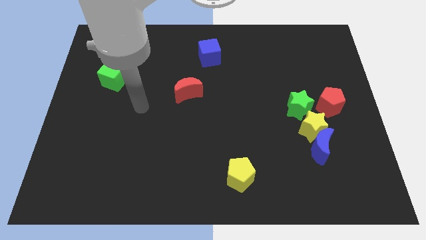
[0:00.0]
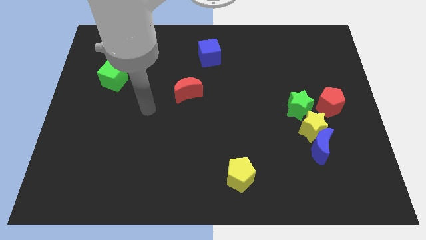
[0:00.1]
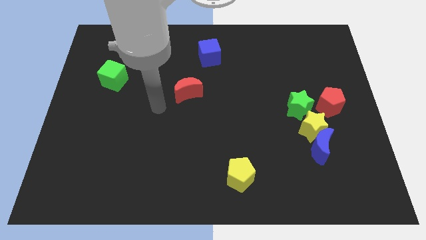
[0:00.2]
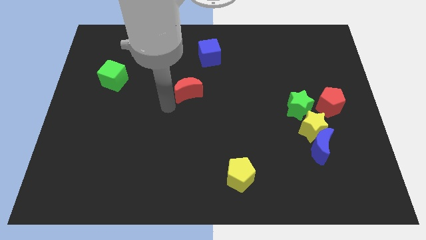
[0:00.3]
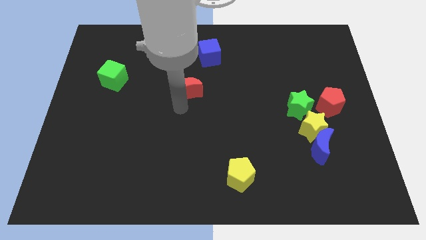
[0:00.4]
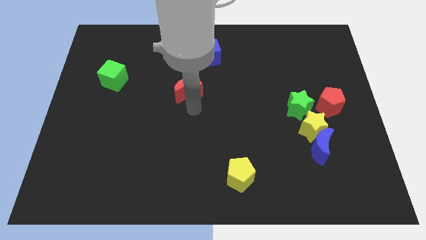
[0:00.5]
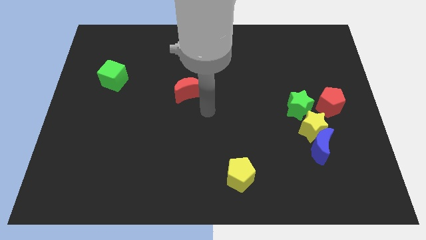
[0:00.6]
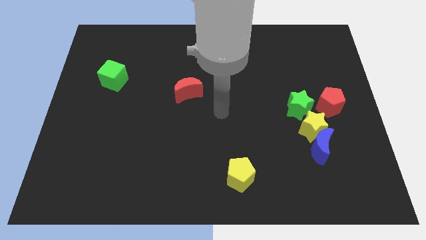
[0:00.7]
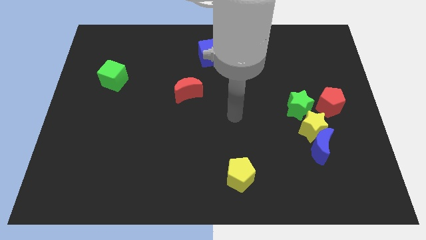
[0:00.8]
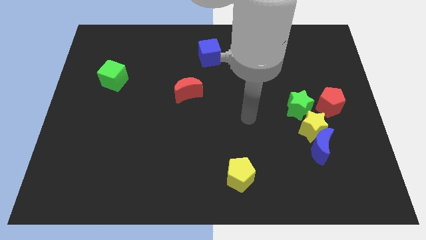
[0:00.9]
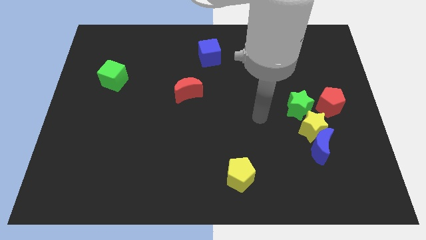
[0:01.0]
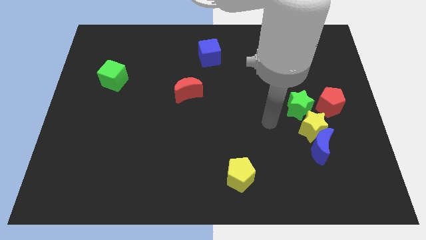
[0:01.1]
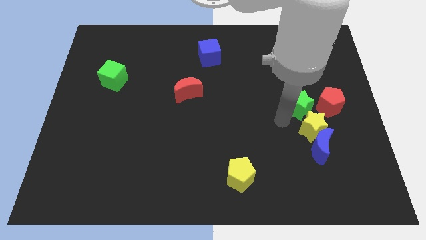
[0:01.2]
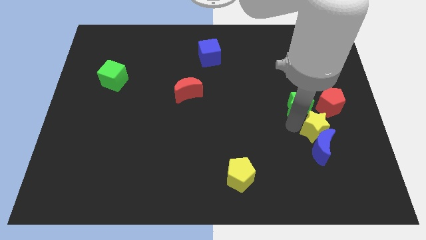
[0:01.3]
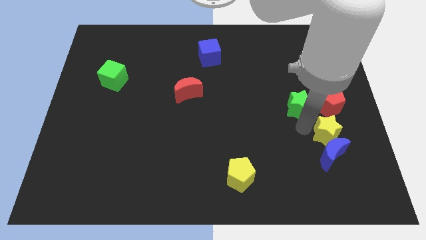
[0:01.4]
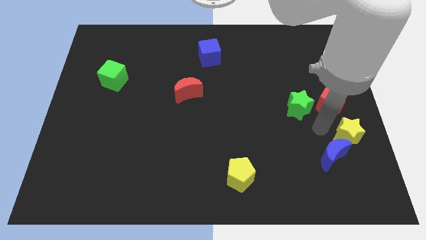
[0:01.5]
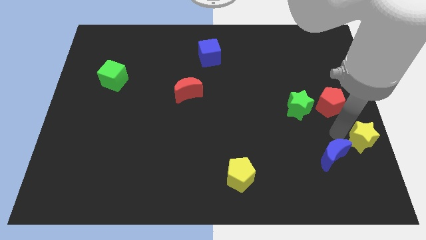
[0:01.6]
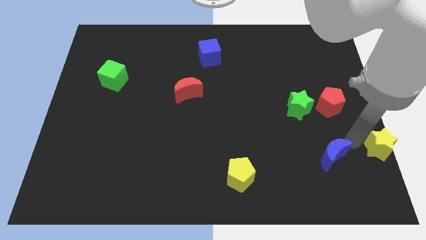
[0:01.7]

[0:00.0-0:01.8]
pull the blue moon apart from the yellow star

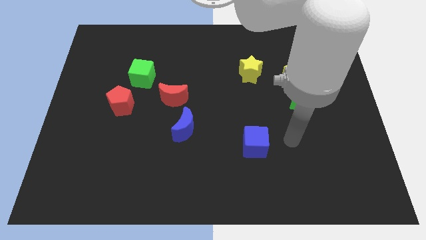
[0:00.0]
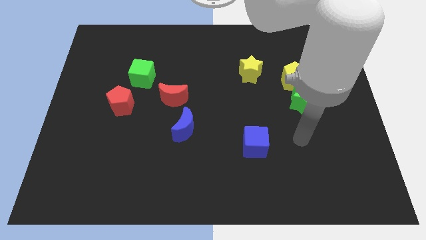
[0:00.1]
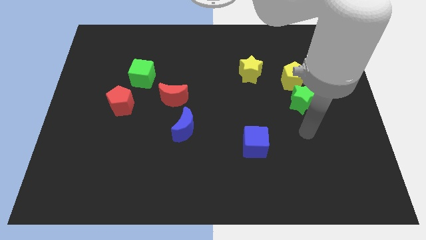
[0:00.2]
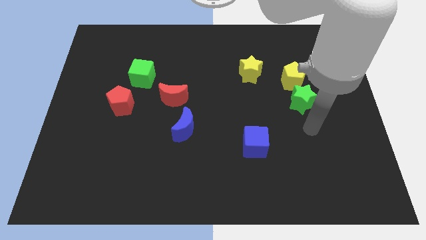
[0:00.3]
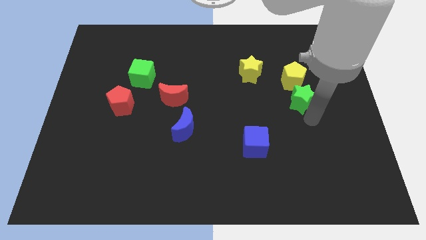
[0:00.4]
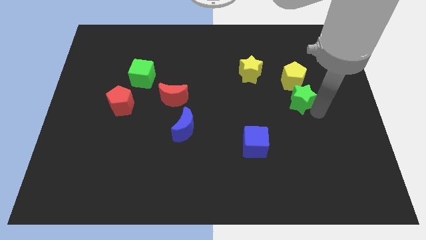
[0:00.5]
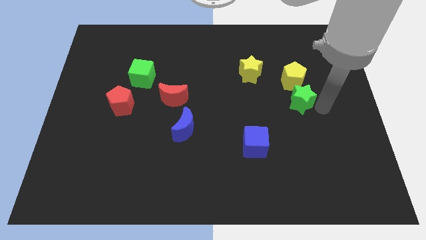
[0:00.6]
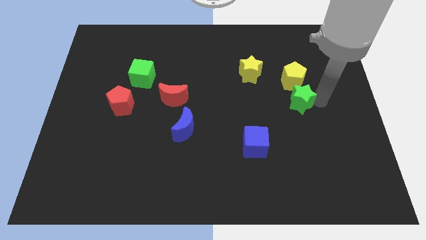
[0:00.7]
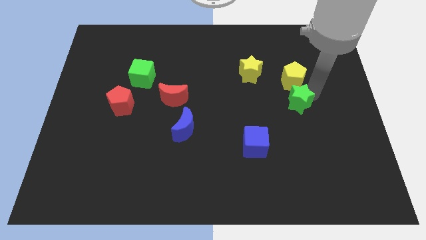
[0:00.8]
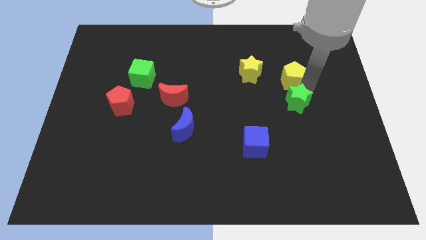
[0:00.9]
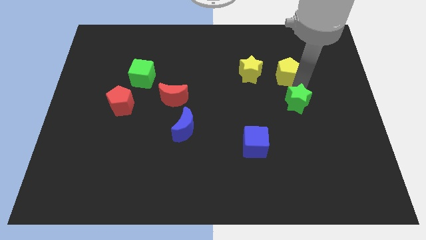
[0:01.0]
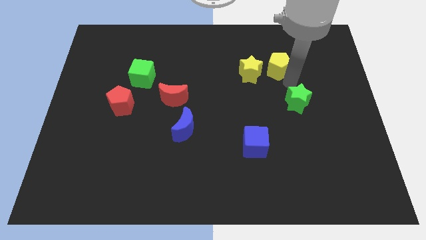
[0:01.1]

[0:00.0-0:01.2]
separate the green star from the yellow pentagon

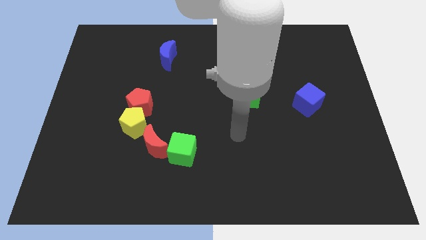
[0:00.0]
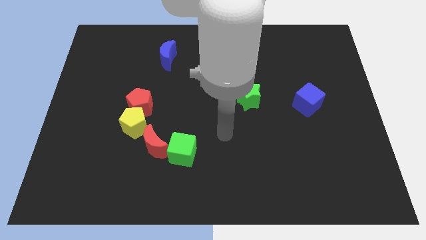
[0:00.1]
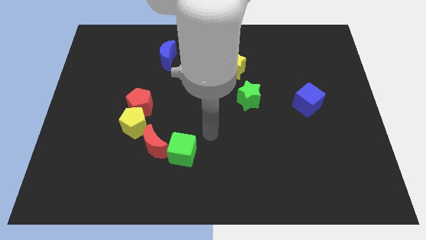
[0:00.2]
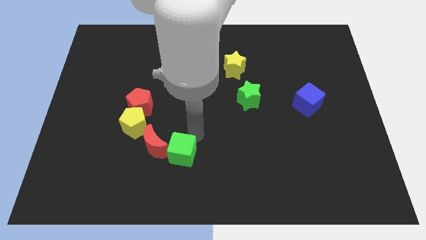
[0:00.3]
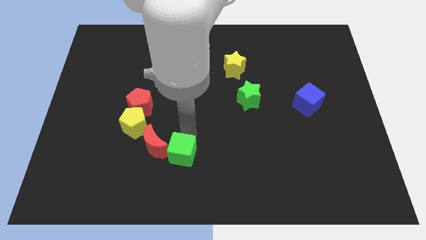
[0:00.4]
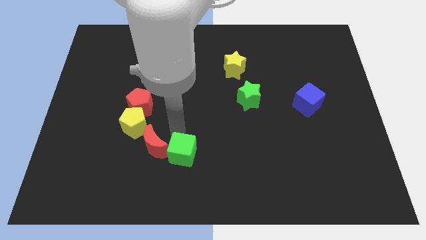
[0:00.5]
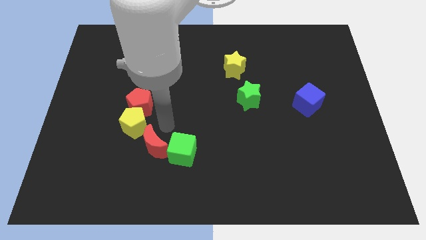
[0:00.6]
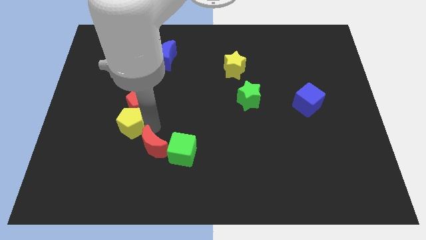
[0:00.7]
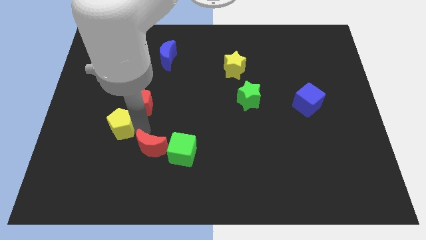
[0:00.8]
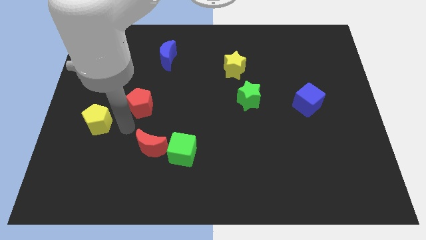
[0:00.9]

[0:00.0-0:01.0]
separate the red pentagon from the yellow pentagon

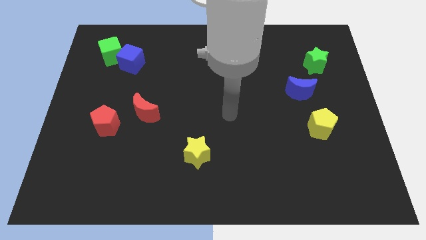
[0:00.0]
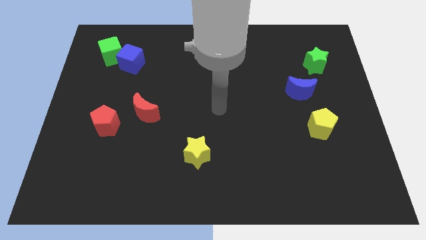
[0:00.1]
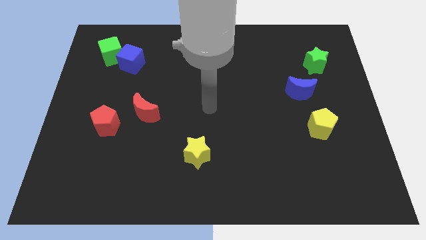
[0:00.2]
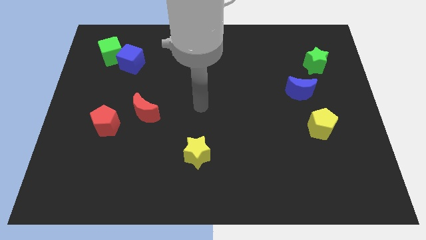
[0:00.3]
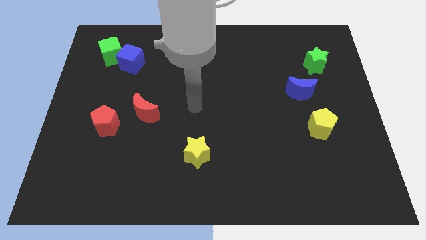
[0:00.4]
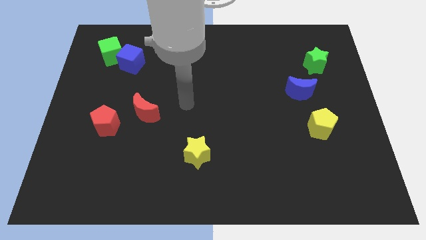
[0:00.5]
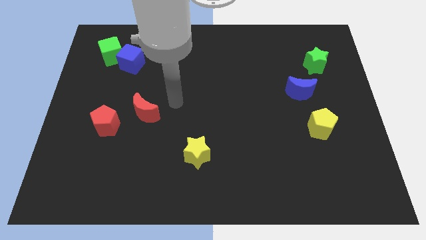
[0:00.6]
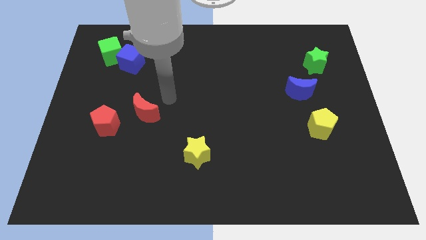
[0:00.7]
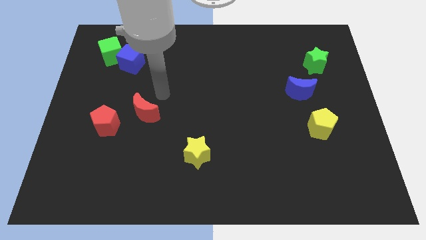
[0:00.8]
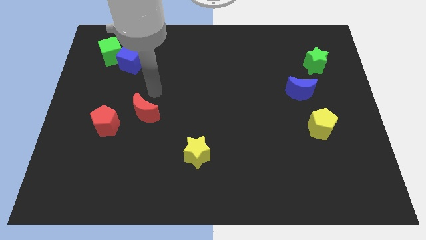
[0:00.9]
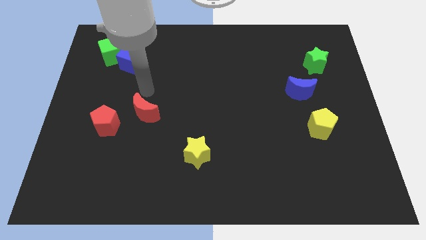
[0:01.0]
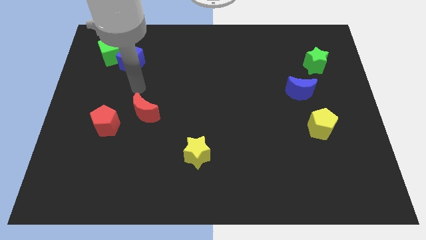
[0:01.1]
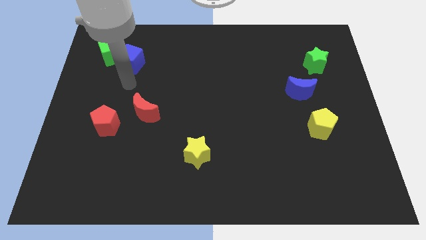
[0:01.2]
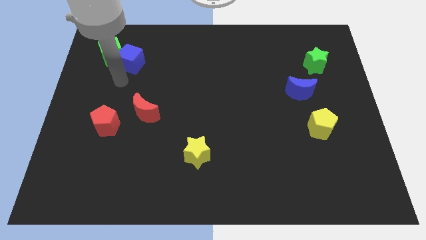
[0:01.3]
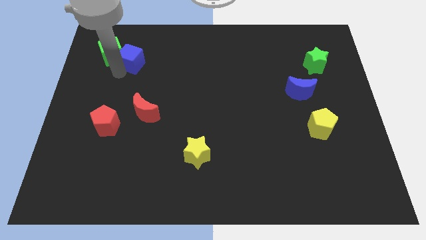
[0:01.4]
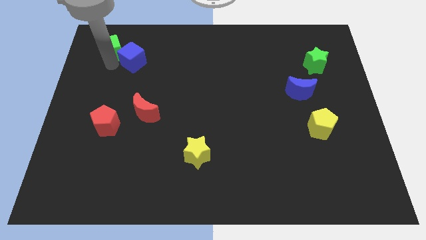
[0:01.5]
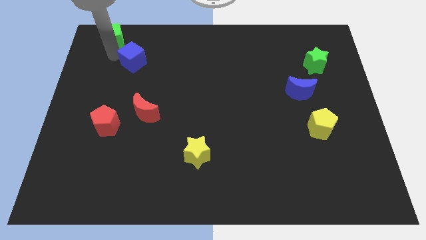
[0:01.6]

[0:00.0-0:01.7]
separate the blue cube from the green cube

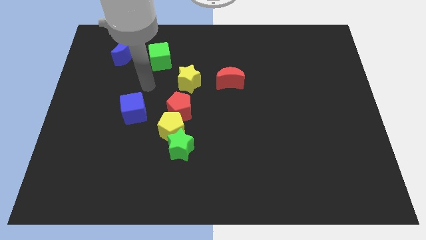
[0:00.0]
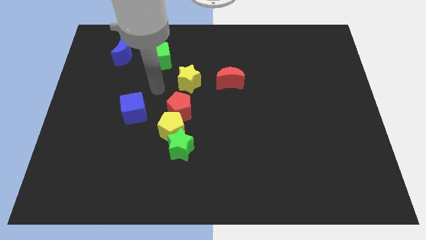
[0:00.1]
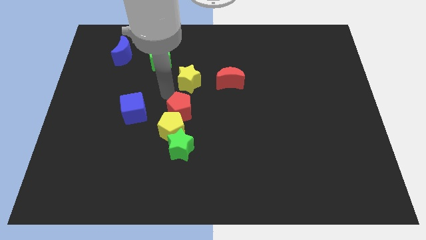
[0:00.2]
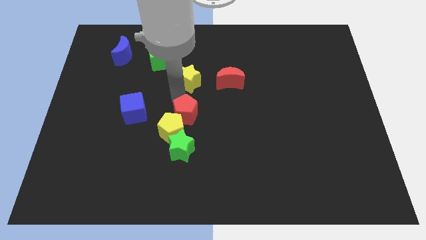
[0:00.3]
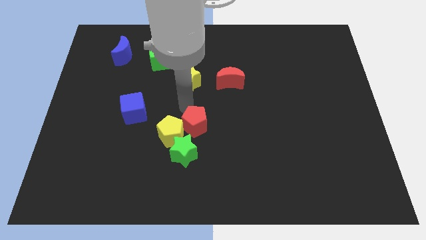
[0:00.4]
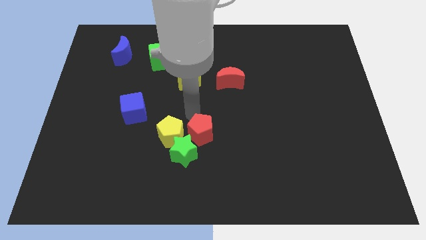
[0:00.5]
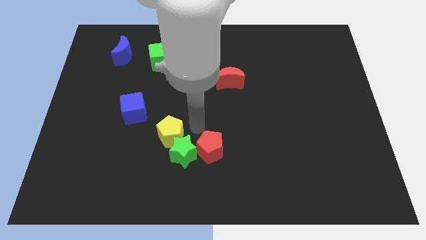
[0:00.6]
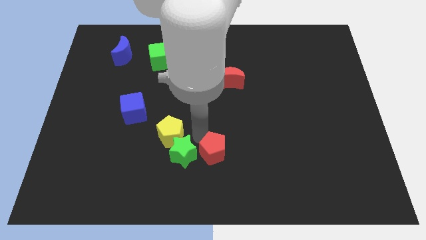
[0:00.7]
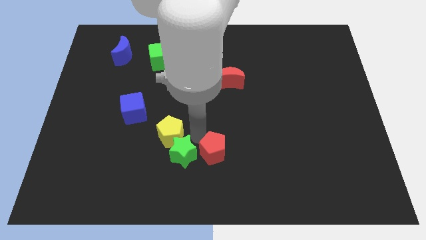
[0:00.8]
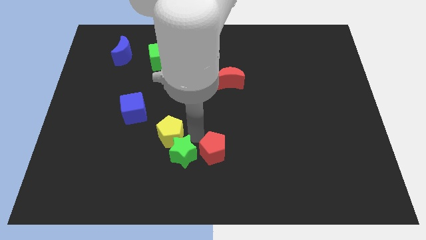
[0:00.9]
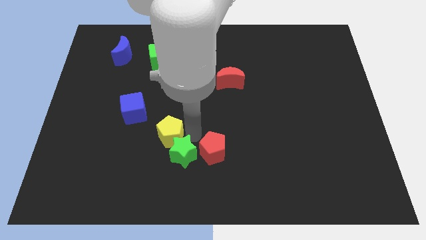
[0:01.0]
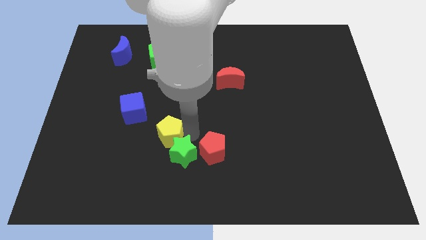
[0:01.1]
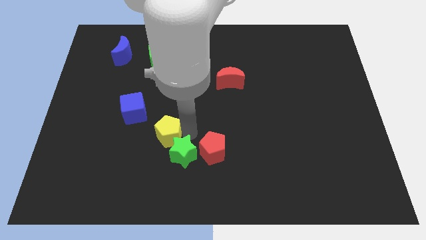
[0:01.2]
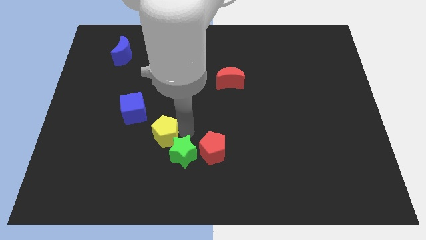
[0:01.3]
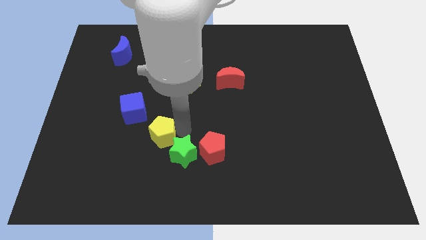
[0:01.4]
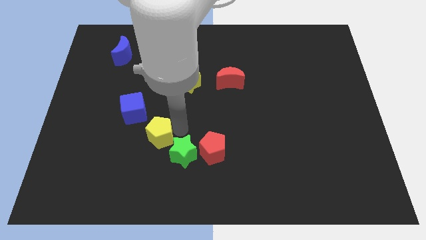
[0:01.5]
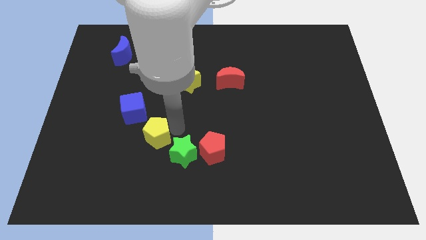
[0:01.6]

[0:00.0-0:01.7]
pull the yellow pentagon apart from the green star and red pentagon
